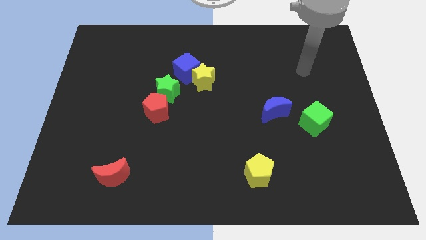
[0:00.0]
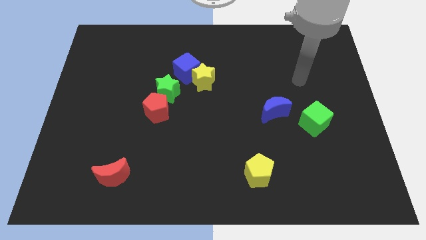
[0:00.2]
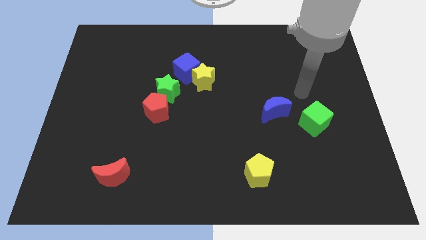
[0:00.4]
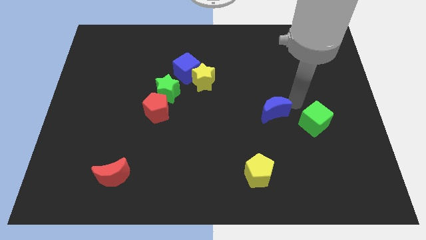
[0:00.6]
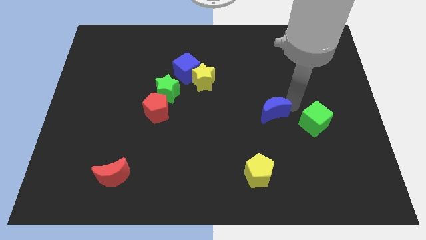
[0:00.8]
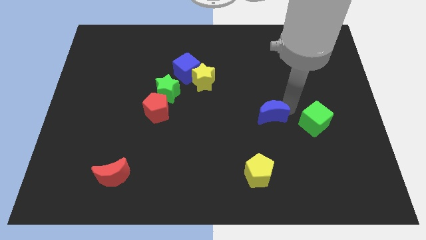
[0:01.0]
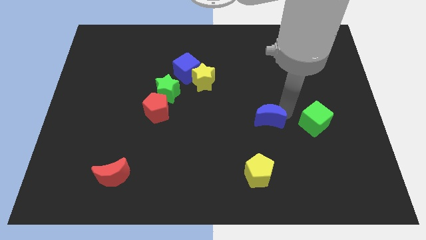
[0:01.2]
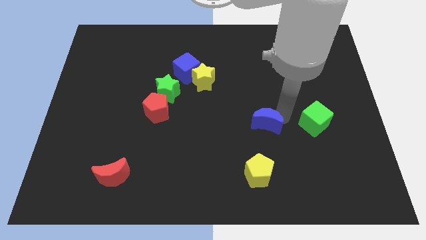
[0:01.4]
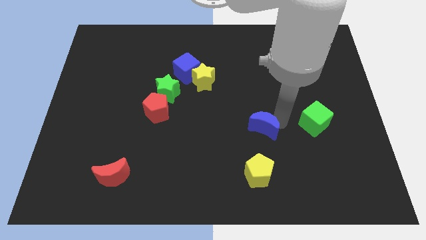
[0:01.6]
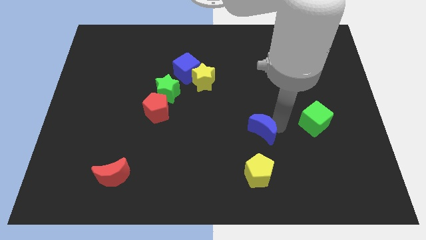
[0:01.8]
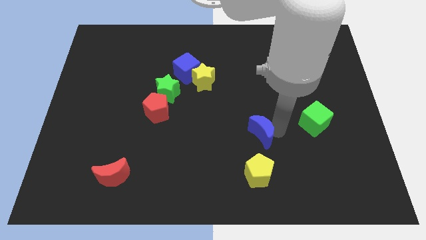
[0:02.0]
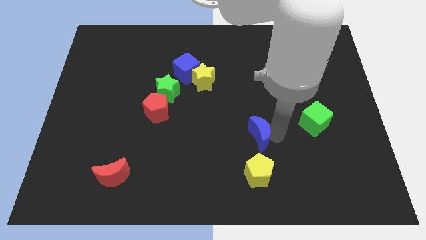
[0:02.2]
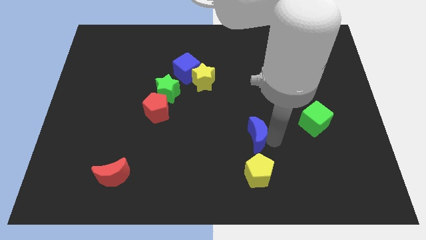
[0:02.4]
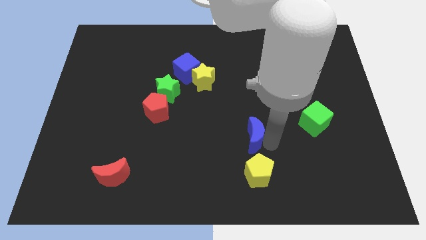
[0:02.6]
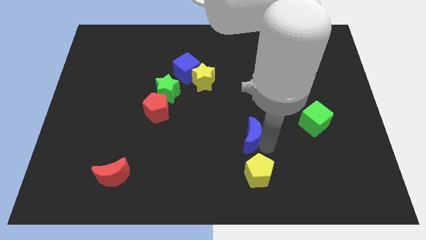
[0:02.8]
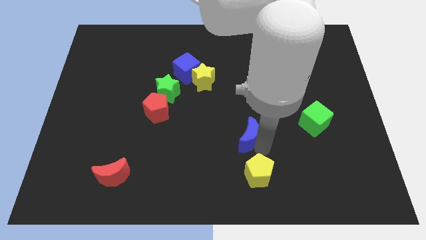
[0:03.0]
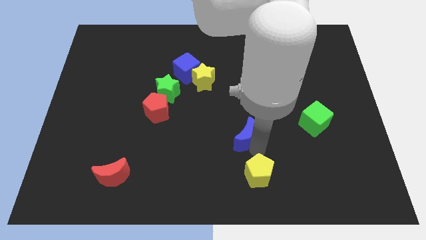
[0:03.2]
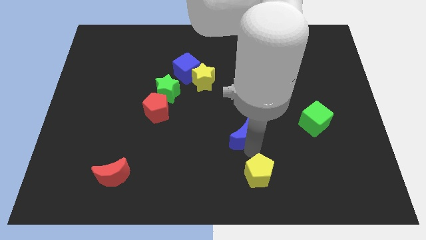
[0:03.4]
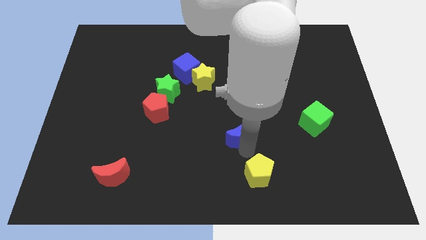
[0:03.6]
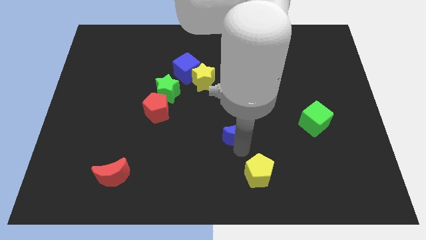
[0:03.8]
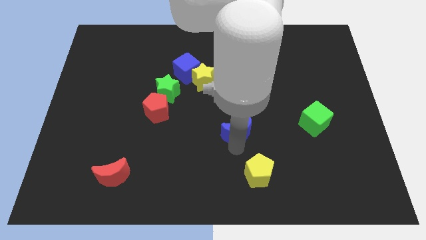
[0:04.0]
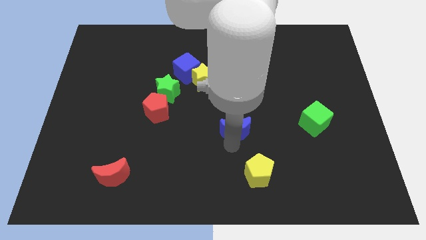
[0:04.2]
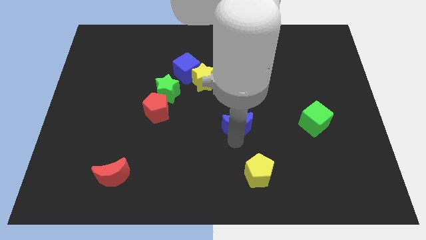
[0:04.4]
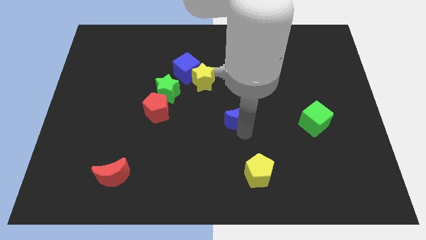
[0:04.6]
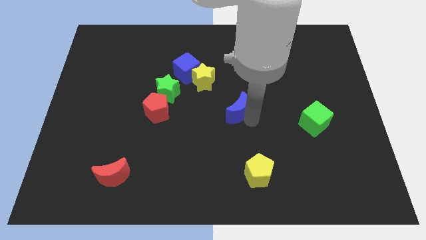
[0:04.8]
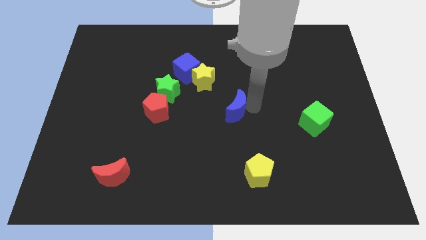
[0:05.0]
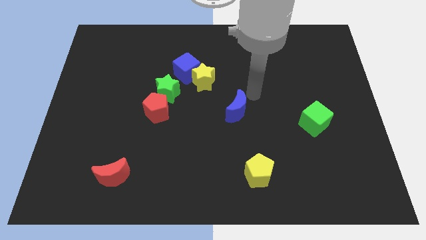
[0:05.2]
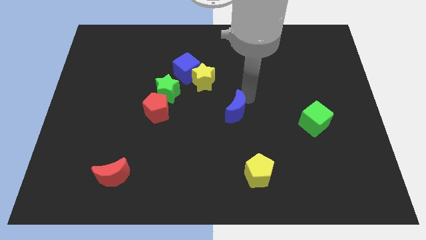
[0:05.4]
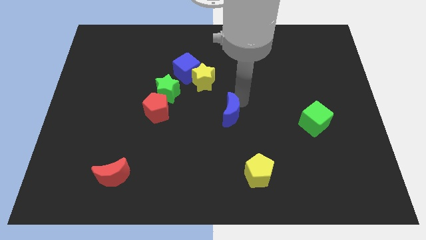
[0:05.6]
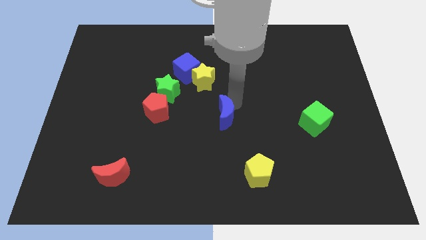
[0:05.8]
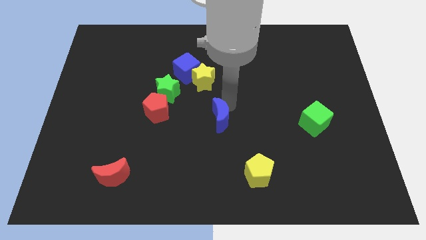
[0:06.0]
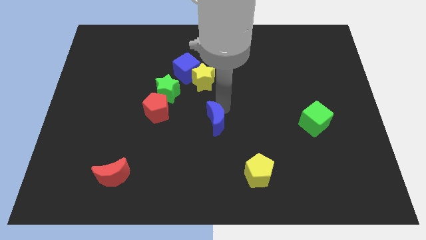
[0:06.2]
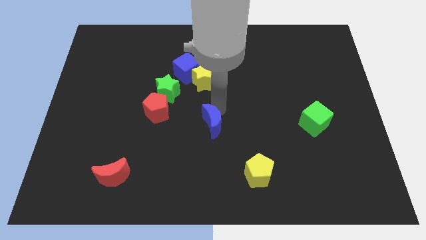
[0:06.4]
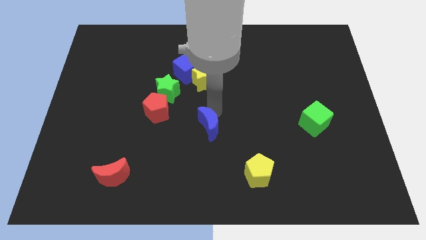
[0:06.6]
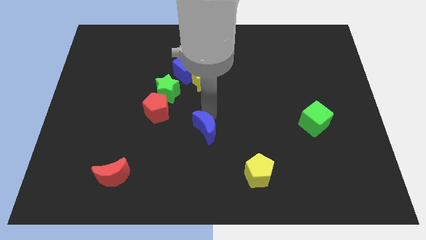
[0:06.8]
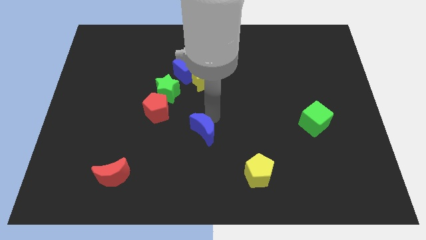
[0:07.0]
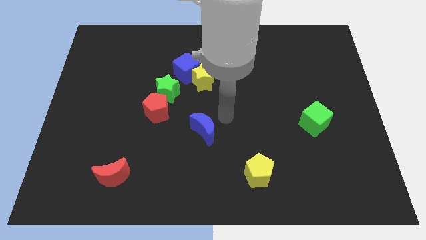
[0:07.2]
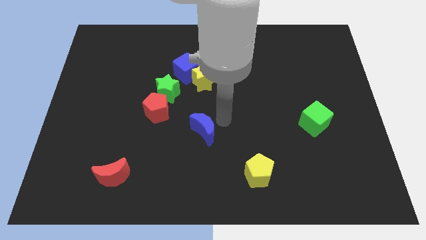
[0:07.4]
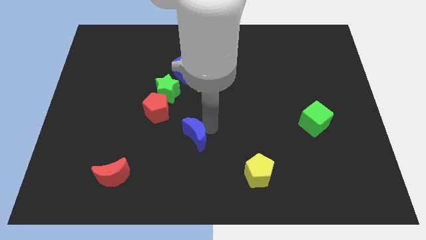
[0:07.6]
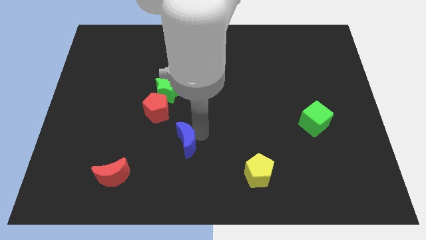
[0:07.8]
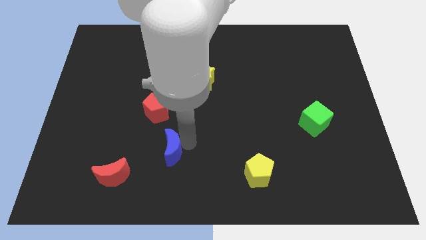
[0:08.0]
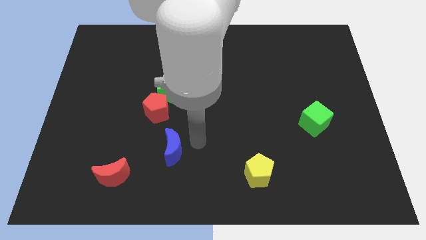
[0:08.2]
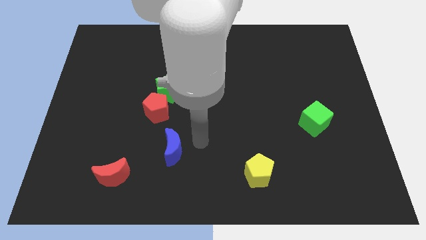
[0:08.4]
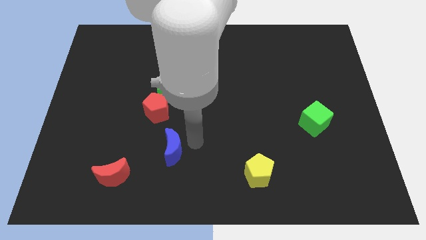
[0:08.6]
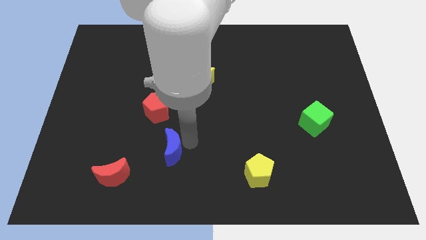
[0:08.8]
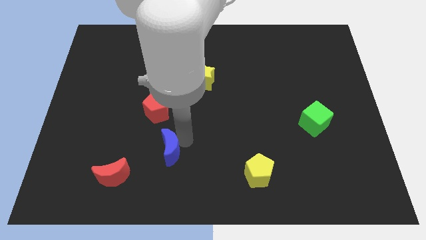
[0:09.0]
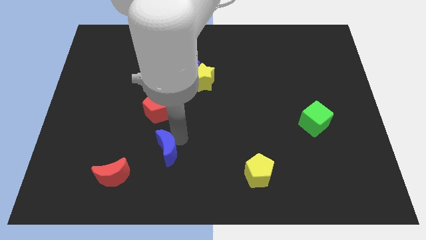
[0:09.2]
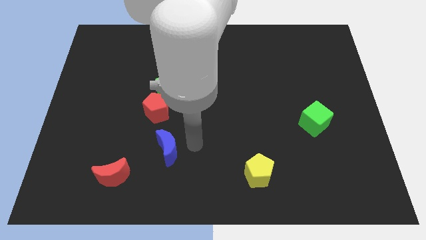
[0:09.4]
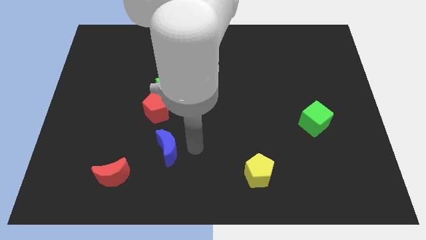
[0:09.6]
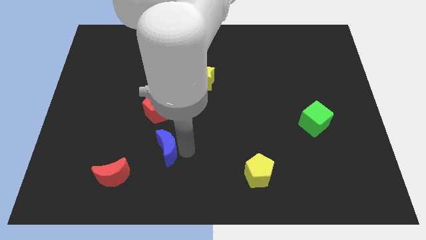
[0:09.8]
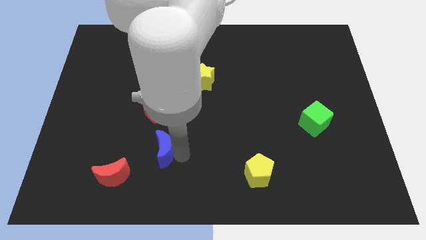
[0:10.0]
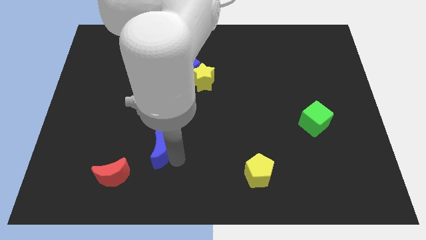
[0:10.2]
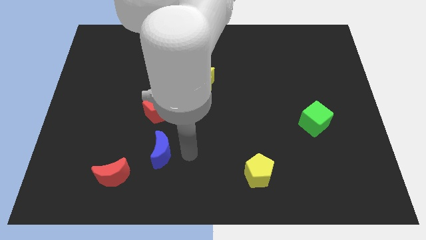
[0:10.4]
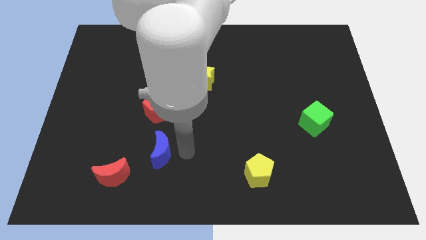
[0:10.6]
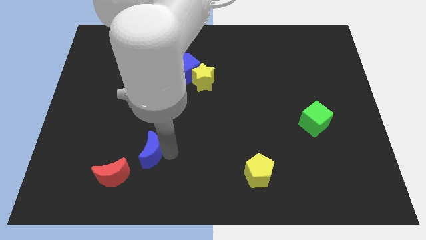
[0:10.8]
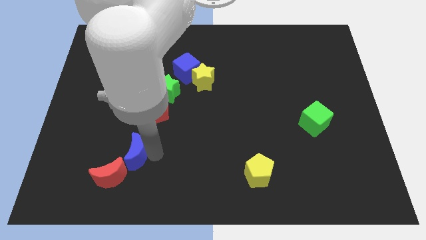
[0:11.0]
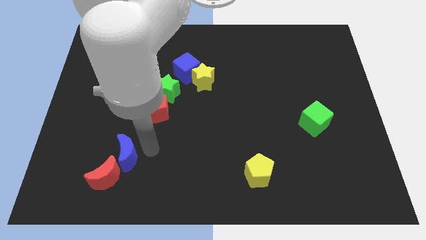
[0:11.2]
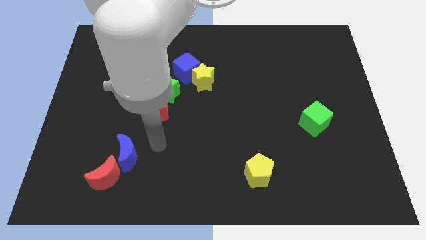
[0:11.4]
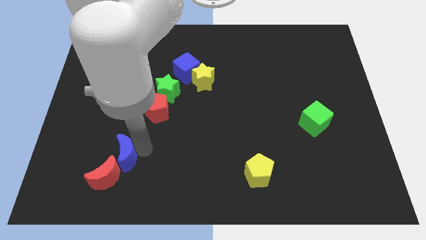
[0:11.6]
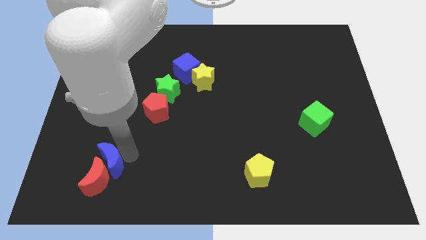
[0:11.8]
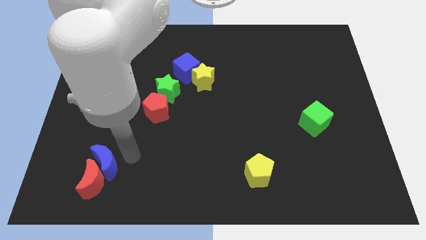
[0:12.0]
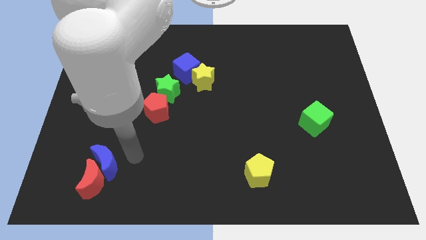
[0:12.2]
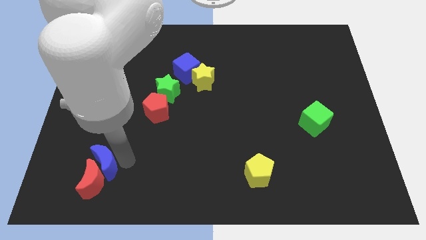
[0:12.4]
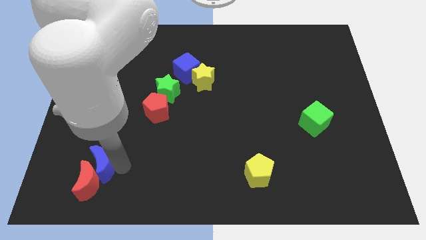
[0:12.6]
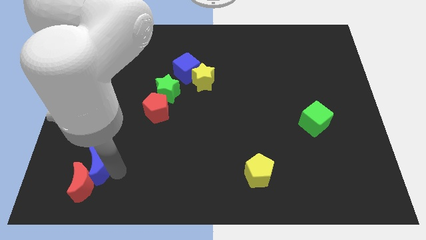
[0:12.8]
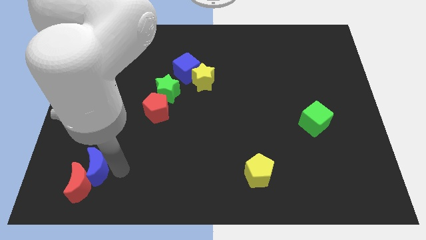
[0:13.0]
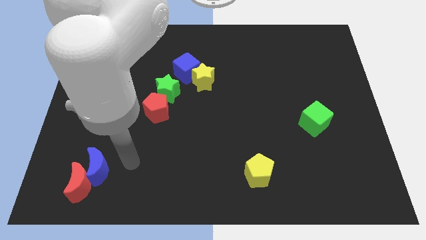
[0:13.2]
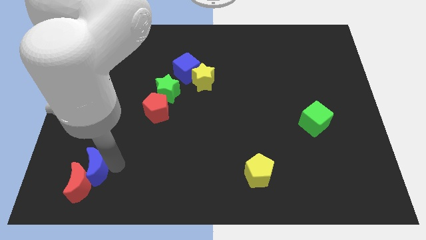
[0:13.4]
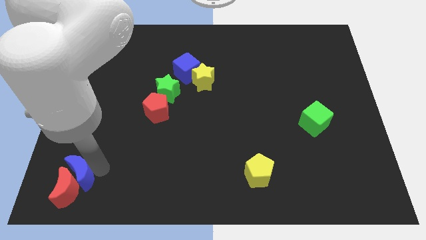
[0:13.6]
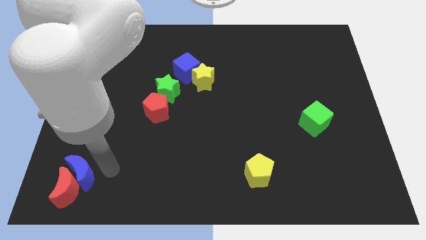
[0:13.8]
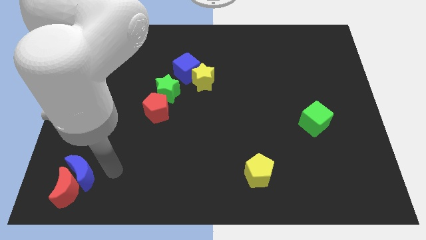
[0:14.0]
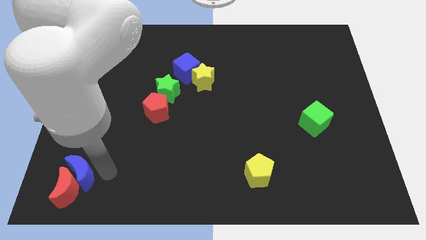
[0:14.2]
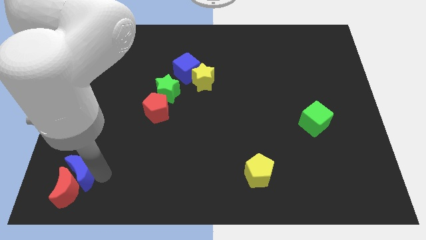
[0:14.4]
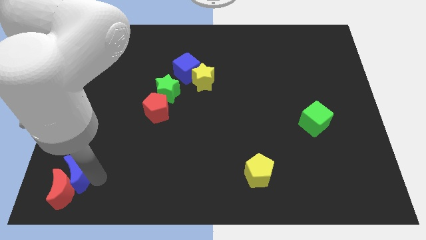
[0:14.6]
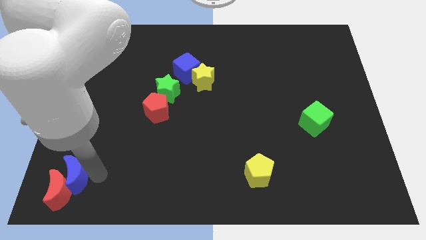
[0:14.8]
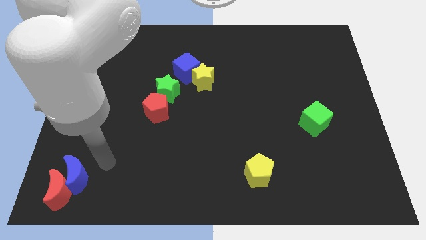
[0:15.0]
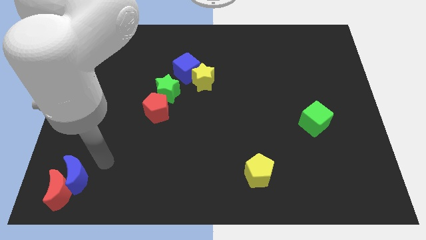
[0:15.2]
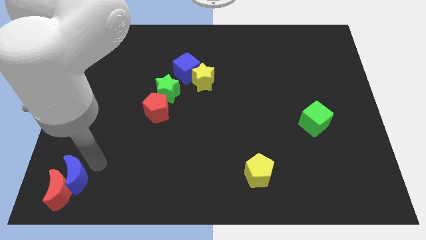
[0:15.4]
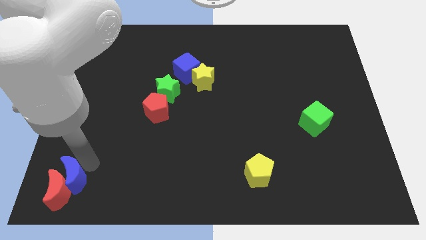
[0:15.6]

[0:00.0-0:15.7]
put the blue moon to the bottom left corner
